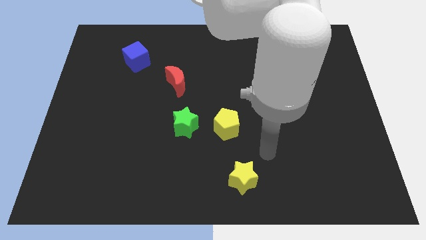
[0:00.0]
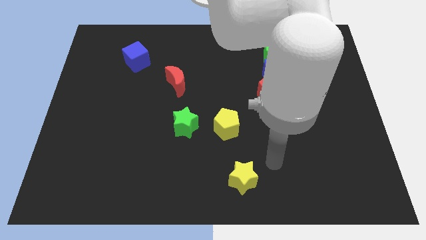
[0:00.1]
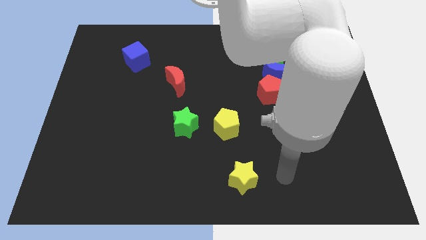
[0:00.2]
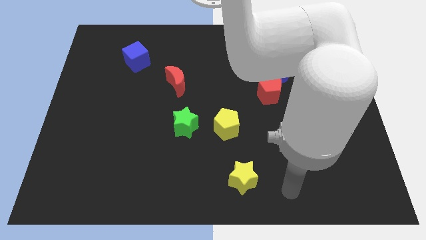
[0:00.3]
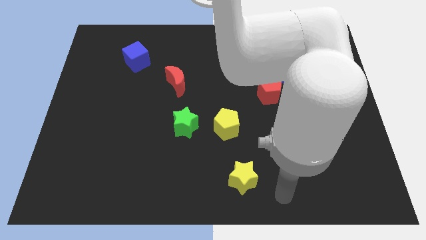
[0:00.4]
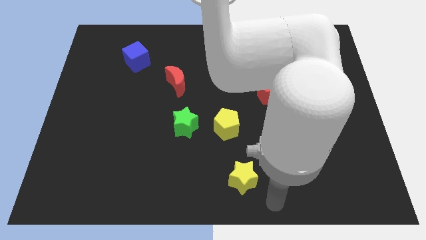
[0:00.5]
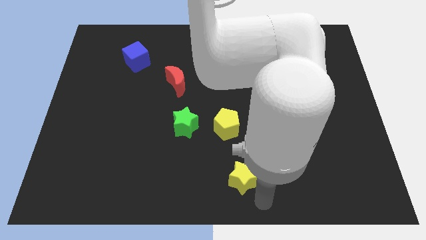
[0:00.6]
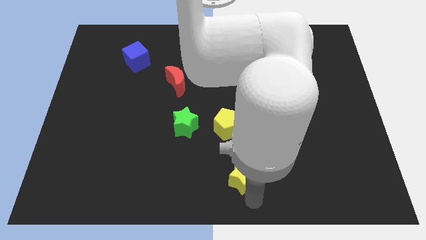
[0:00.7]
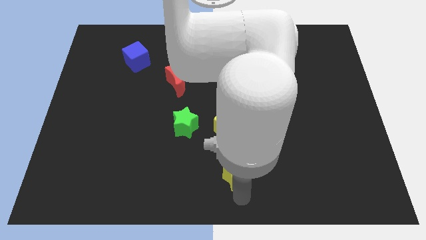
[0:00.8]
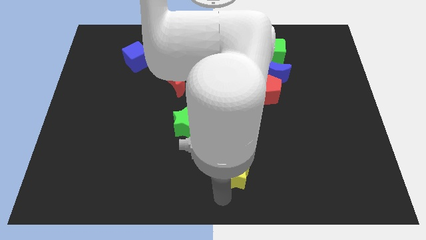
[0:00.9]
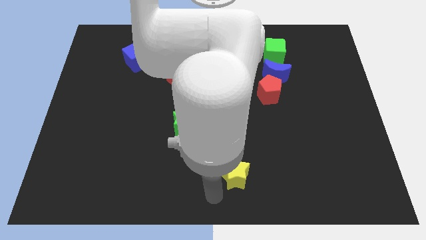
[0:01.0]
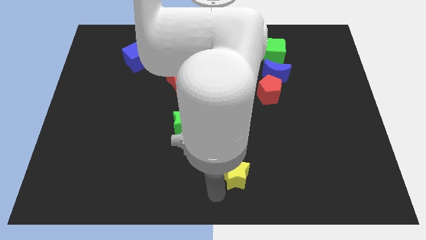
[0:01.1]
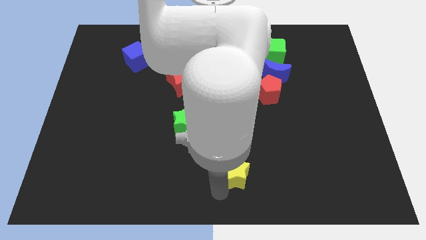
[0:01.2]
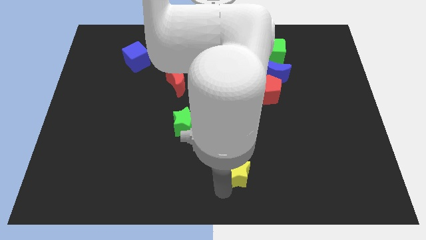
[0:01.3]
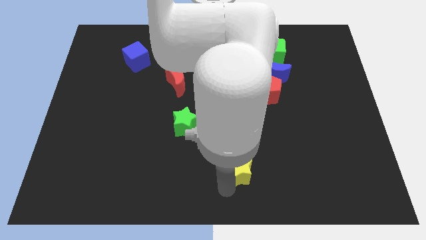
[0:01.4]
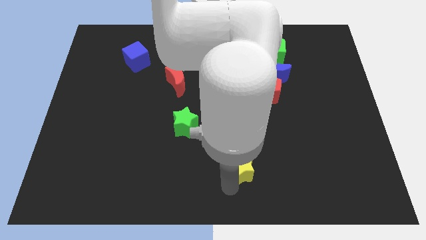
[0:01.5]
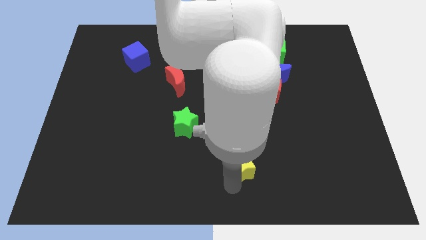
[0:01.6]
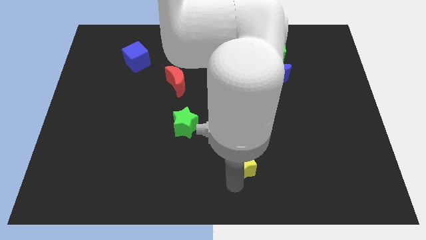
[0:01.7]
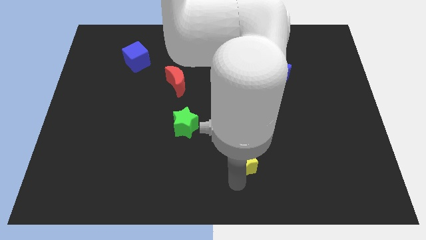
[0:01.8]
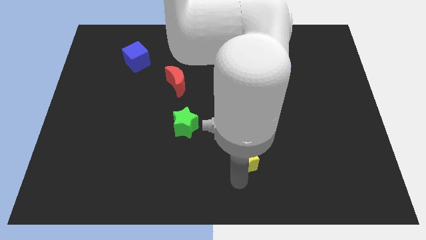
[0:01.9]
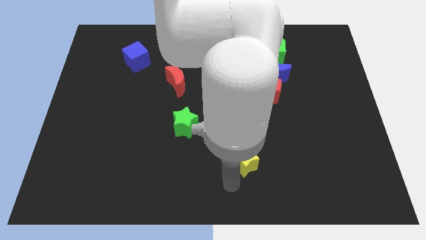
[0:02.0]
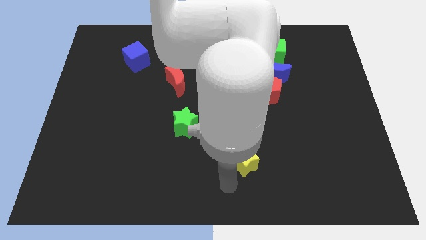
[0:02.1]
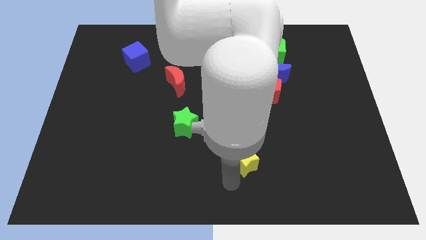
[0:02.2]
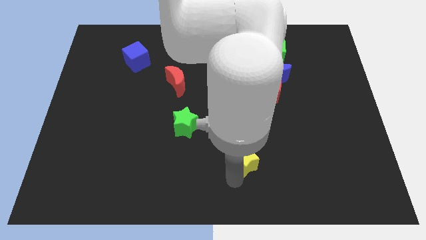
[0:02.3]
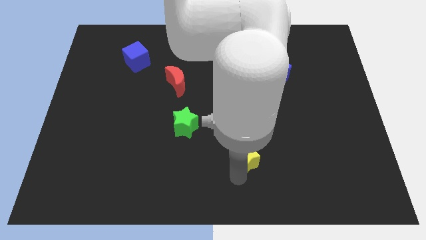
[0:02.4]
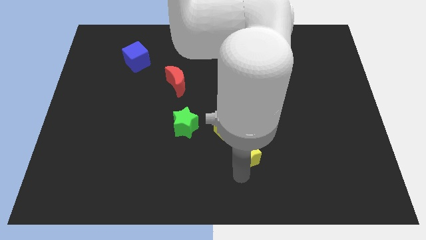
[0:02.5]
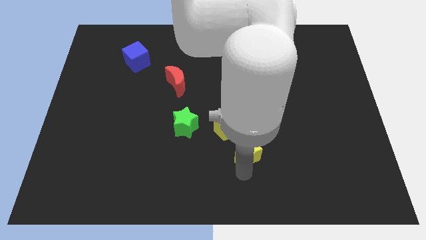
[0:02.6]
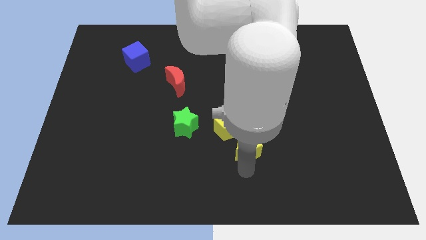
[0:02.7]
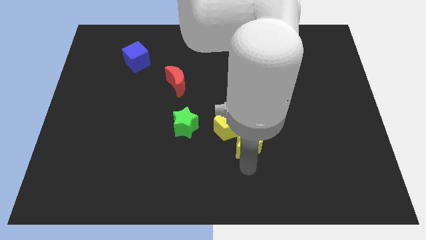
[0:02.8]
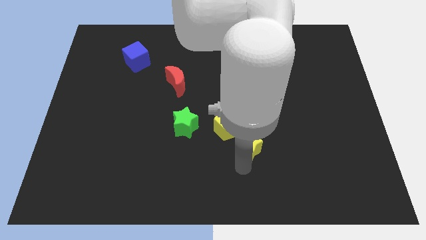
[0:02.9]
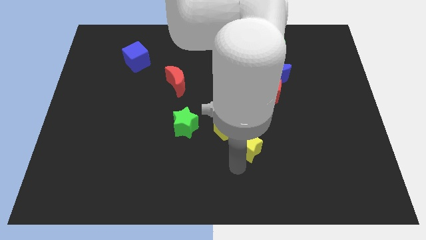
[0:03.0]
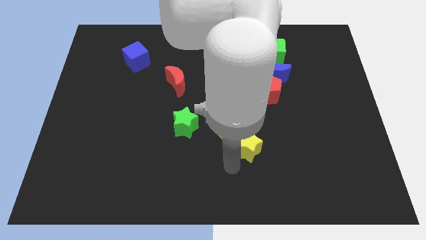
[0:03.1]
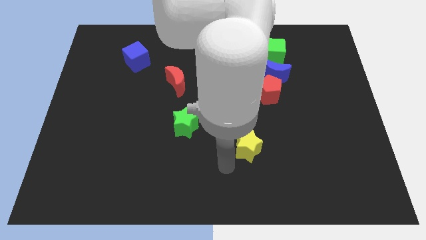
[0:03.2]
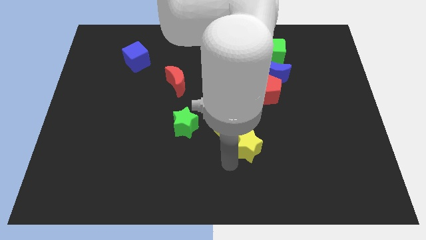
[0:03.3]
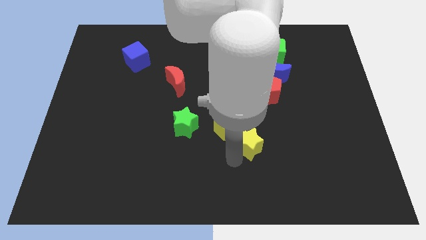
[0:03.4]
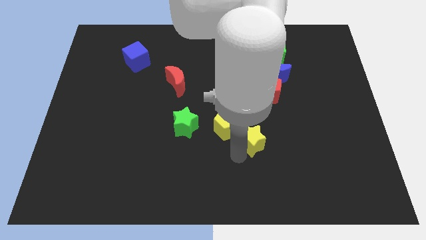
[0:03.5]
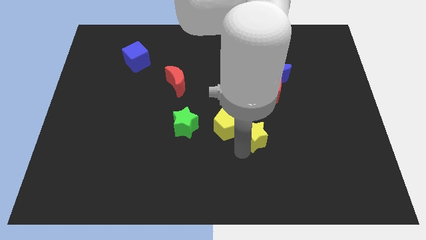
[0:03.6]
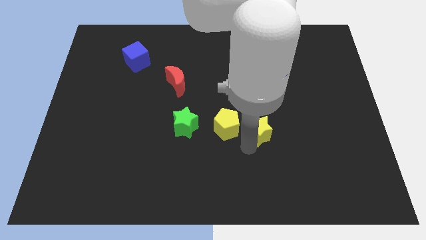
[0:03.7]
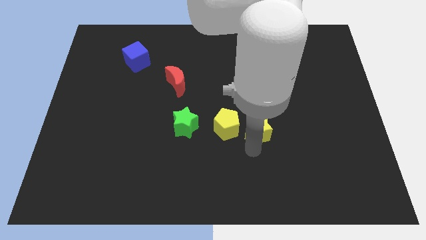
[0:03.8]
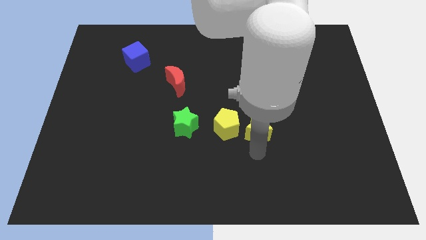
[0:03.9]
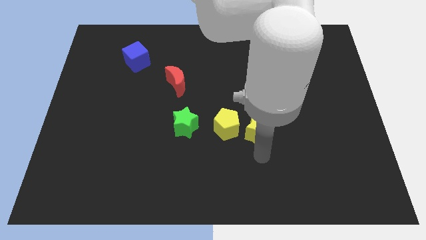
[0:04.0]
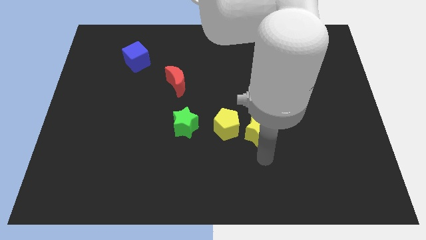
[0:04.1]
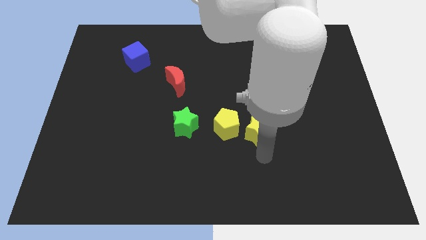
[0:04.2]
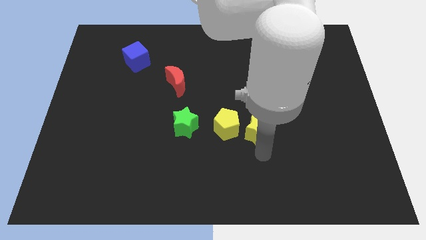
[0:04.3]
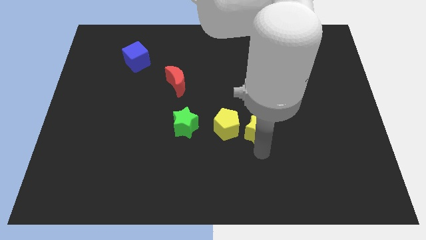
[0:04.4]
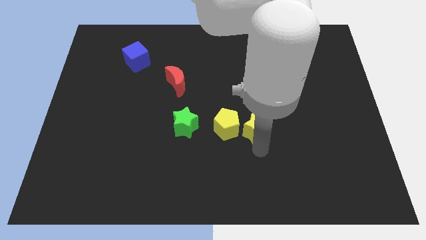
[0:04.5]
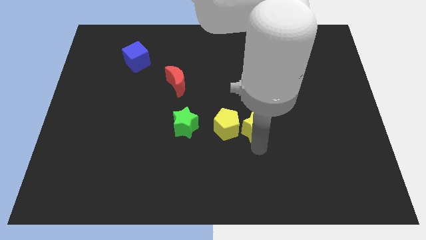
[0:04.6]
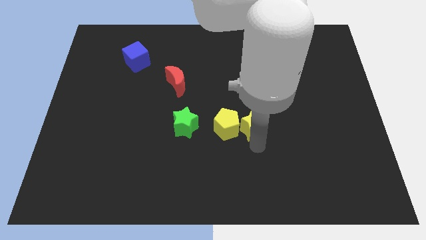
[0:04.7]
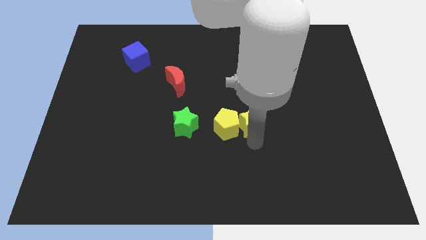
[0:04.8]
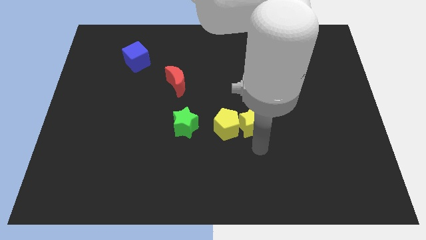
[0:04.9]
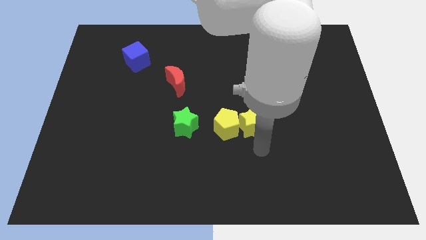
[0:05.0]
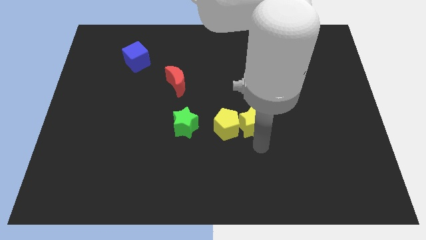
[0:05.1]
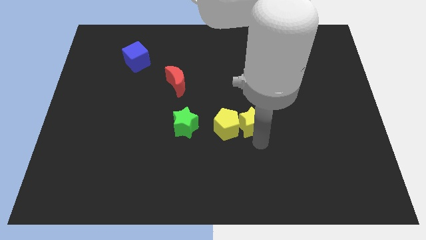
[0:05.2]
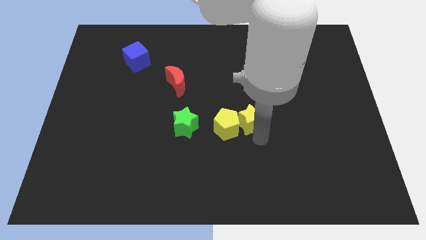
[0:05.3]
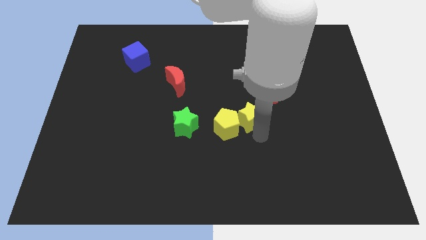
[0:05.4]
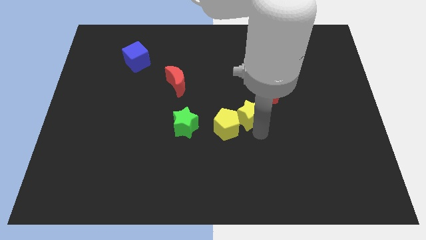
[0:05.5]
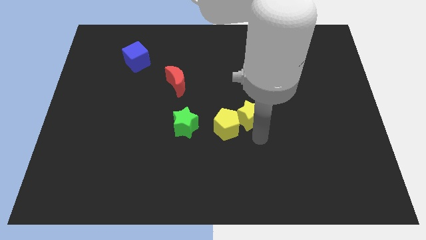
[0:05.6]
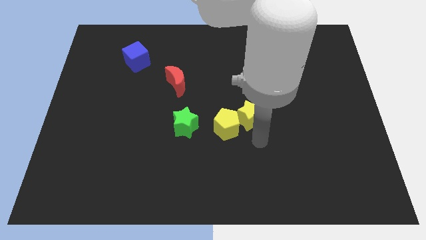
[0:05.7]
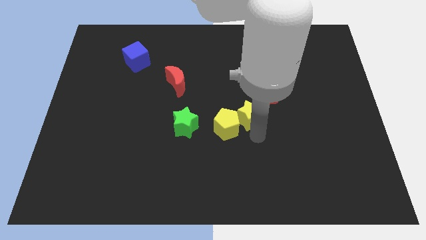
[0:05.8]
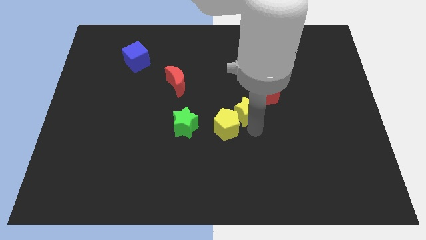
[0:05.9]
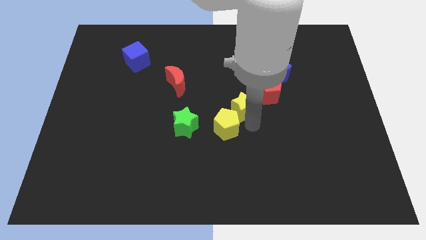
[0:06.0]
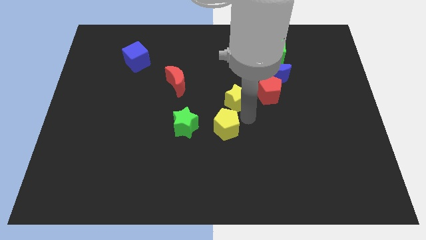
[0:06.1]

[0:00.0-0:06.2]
slide the yellow star upwards

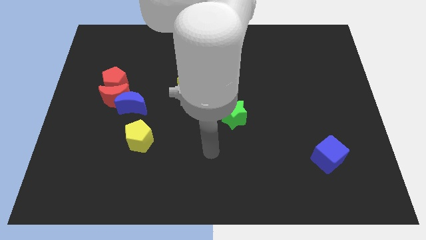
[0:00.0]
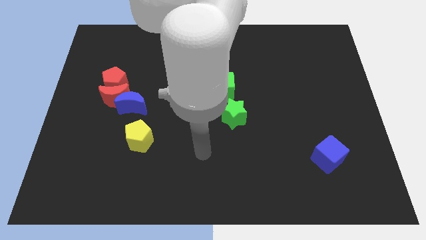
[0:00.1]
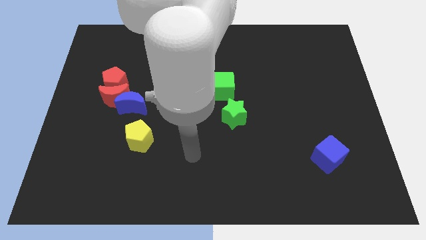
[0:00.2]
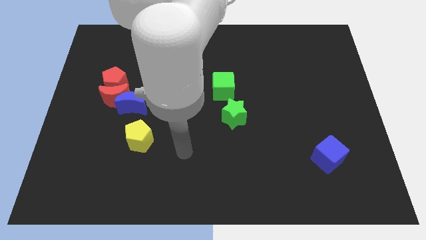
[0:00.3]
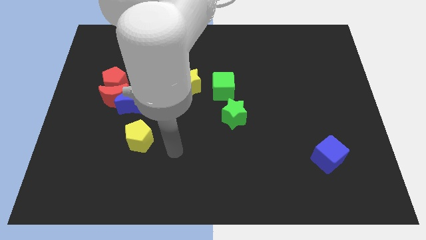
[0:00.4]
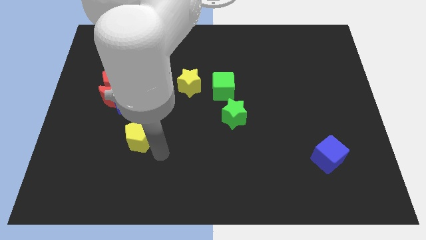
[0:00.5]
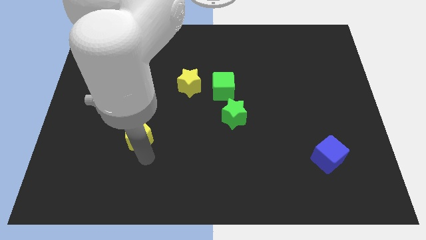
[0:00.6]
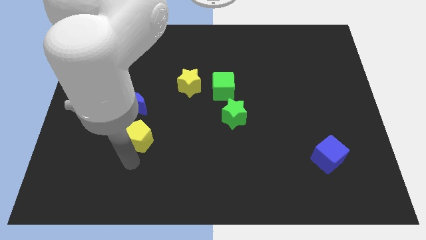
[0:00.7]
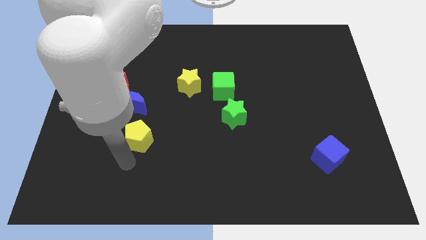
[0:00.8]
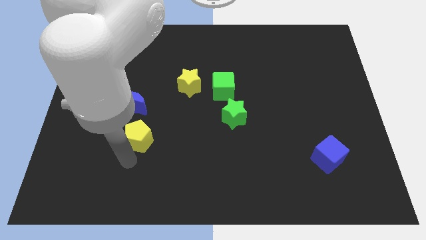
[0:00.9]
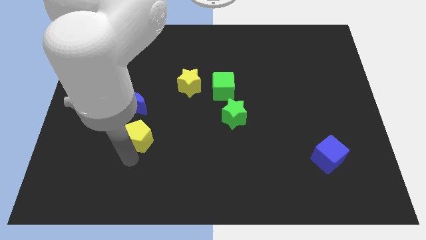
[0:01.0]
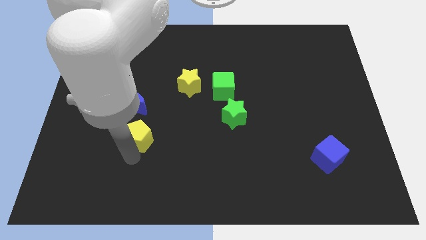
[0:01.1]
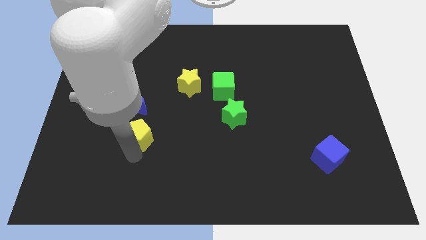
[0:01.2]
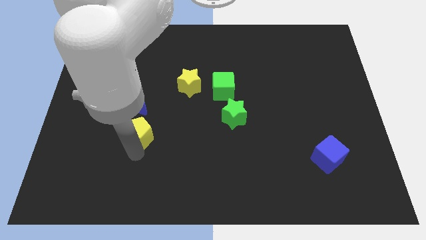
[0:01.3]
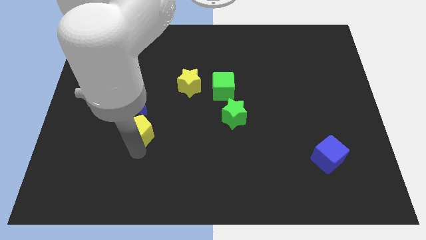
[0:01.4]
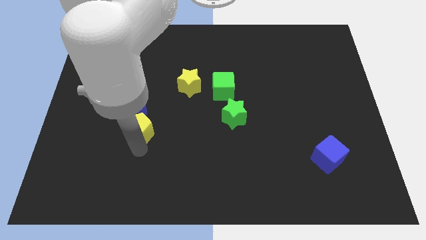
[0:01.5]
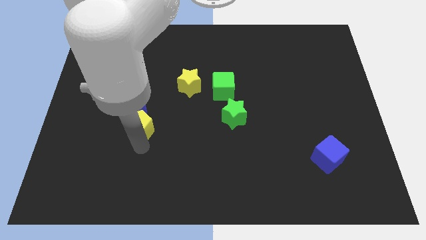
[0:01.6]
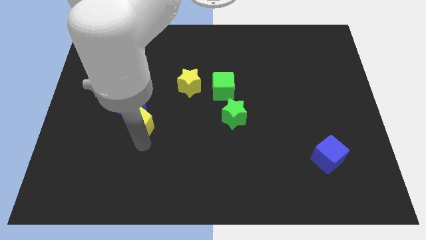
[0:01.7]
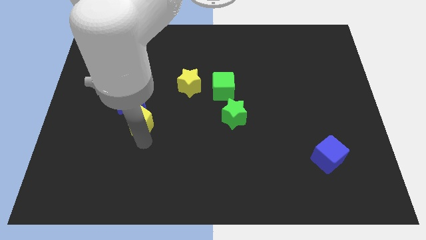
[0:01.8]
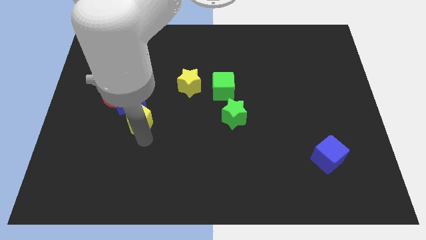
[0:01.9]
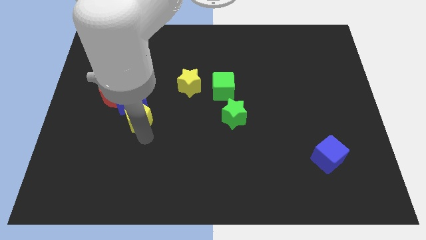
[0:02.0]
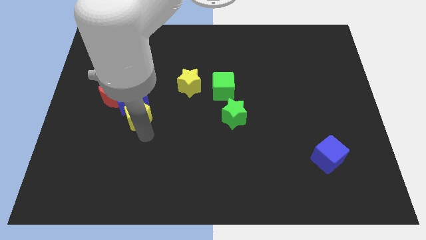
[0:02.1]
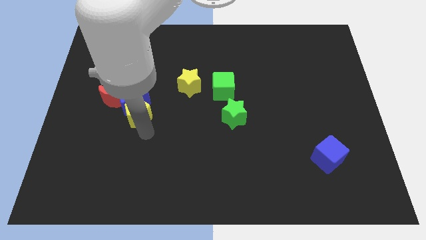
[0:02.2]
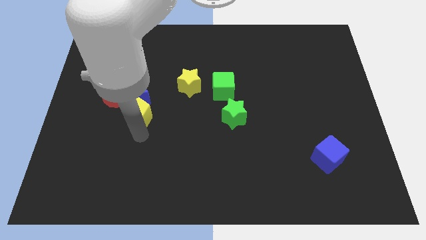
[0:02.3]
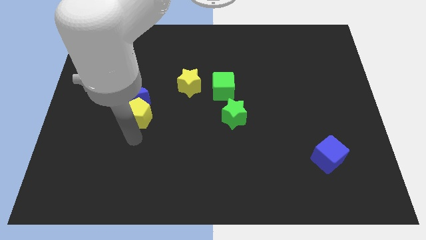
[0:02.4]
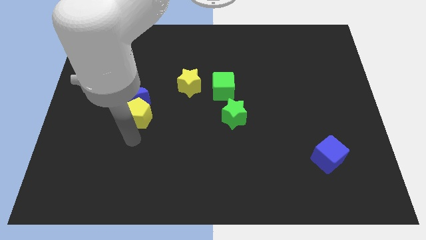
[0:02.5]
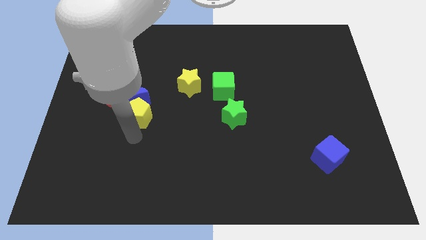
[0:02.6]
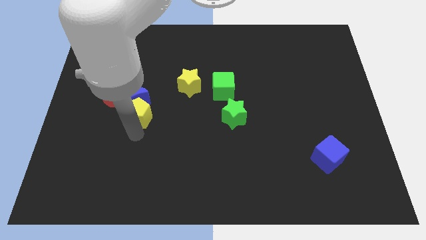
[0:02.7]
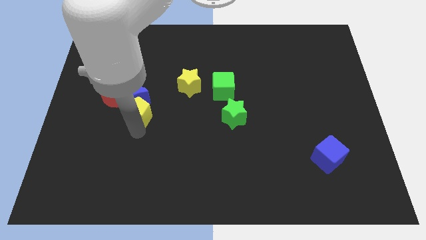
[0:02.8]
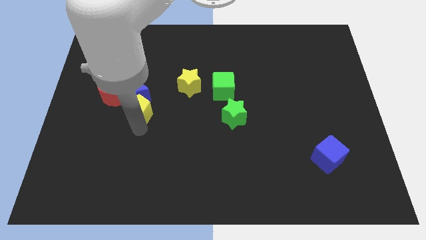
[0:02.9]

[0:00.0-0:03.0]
slightly slide the yellow pentagon up
